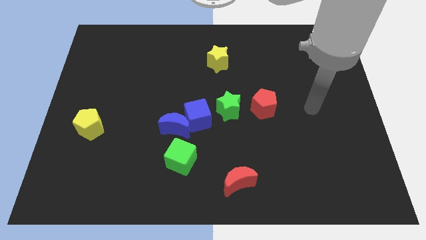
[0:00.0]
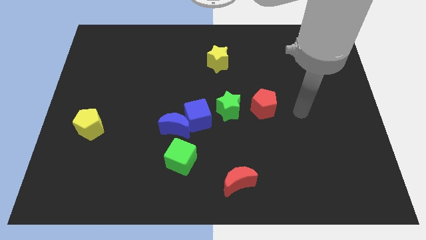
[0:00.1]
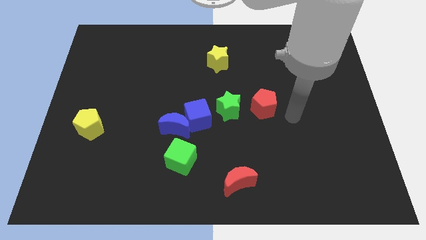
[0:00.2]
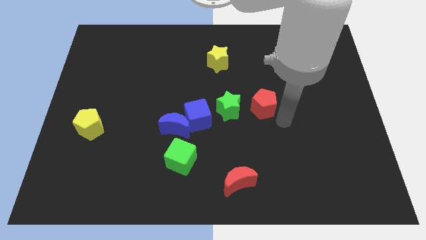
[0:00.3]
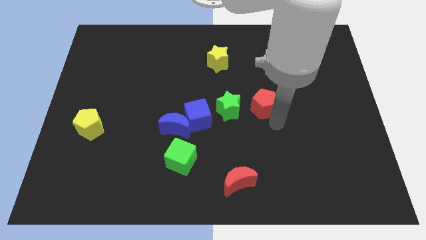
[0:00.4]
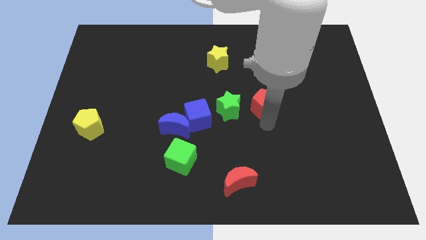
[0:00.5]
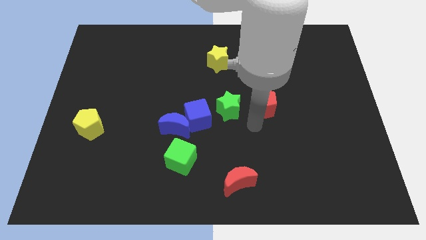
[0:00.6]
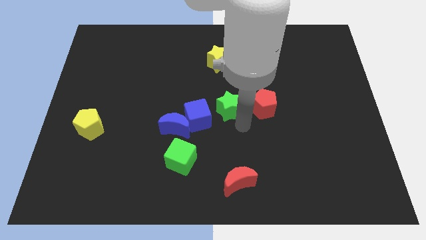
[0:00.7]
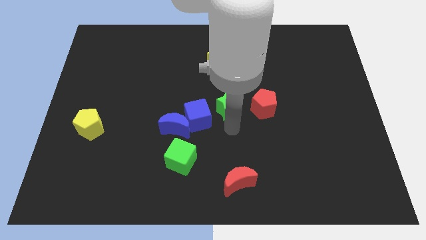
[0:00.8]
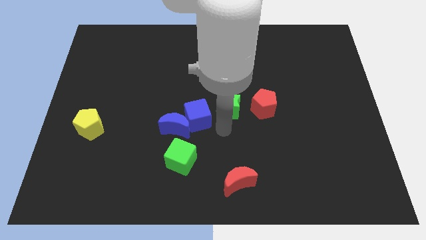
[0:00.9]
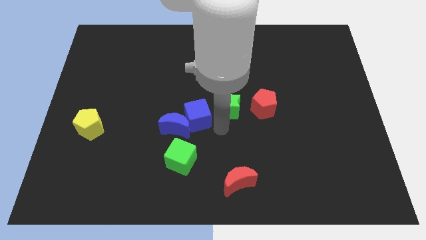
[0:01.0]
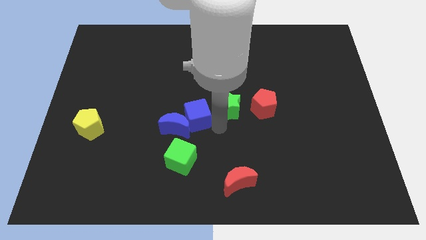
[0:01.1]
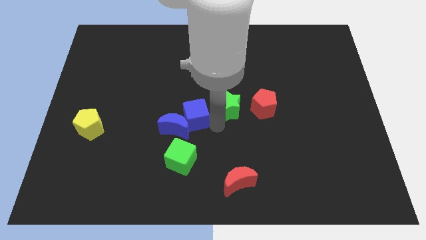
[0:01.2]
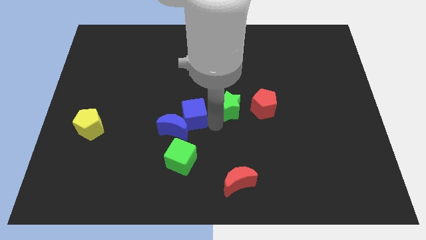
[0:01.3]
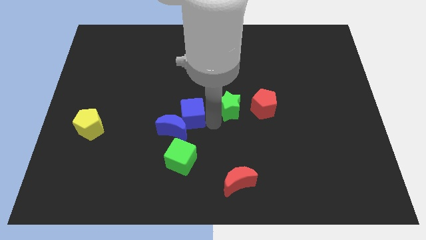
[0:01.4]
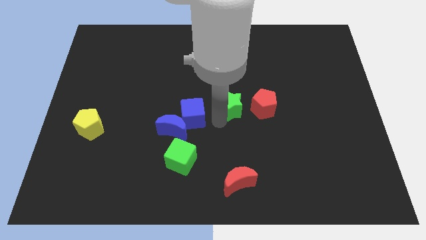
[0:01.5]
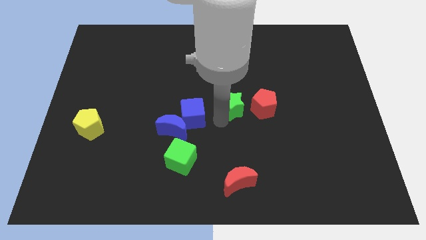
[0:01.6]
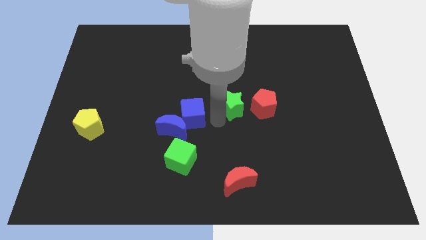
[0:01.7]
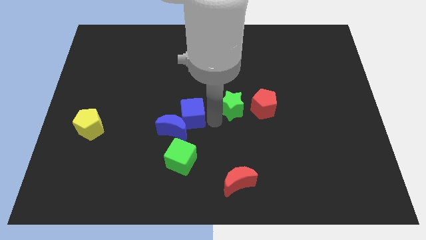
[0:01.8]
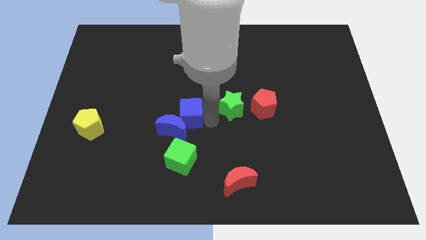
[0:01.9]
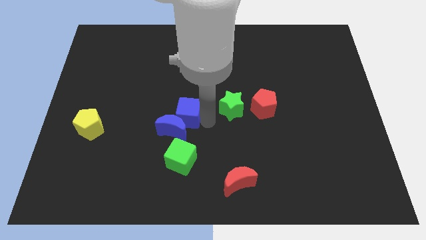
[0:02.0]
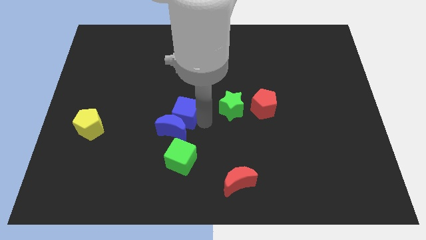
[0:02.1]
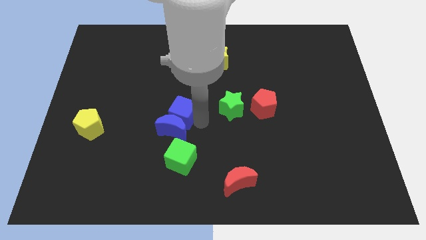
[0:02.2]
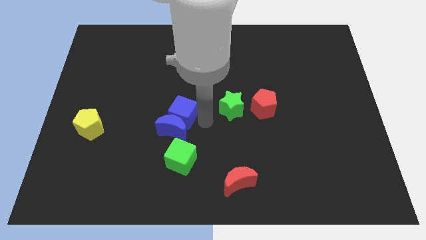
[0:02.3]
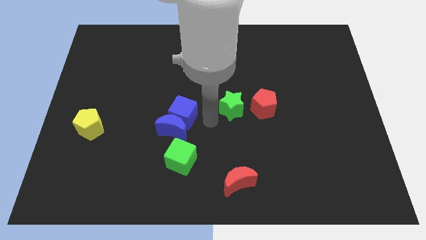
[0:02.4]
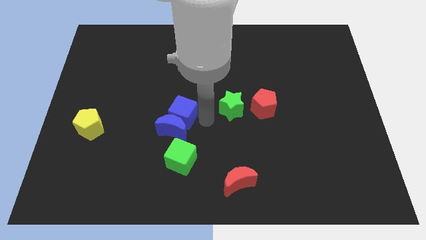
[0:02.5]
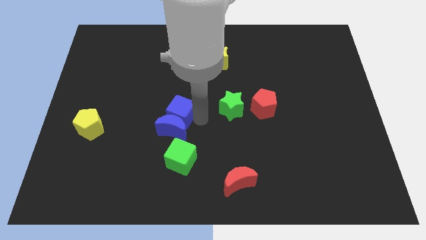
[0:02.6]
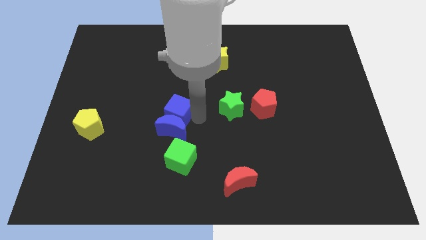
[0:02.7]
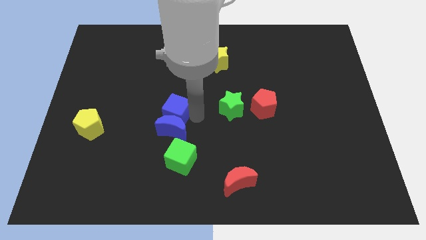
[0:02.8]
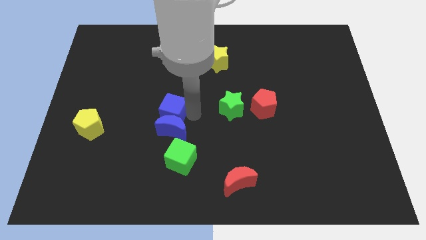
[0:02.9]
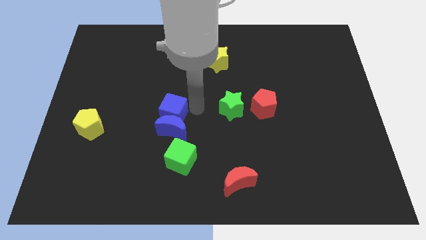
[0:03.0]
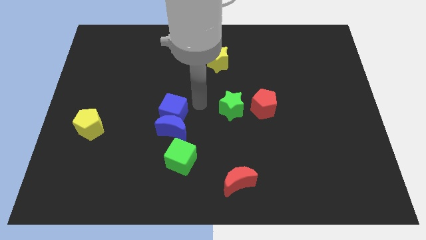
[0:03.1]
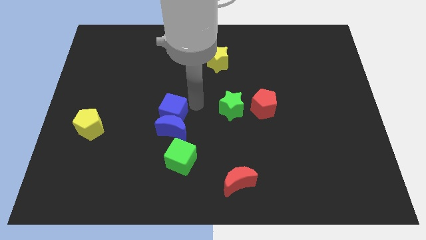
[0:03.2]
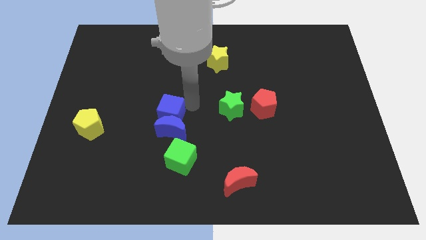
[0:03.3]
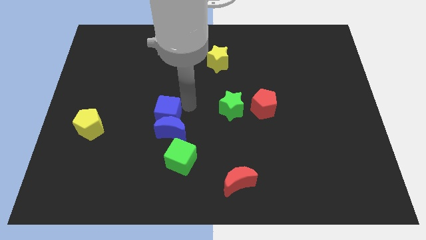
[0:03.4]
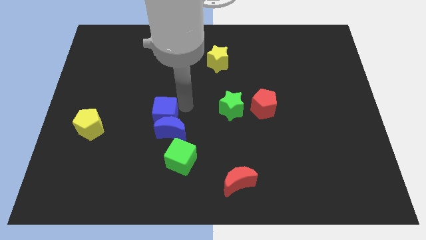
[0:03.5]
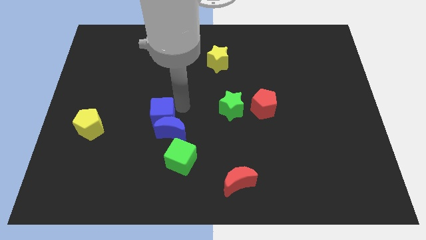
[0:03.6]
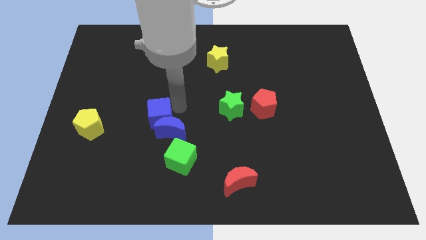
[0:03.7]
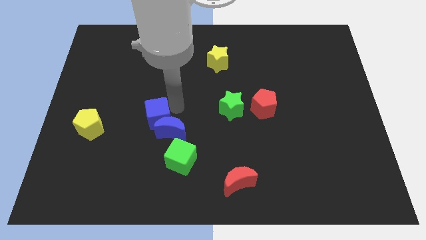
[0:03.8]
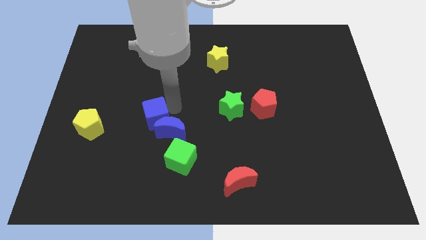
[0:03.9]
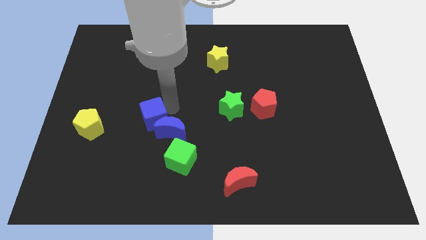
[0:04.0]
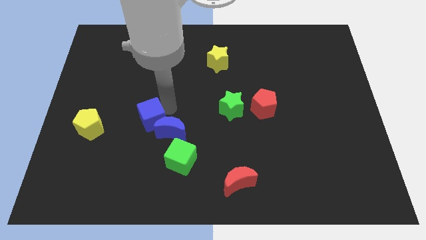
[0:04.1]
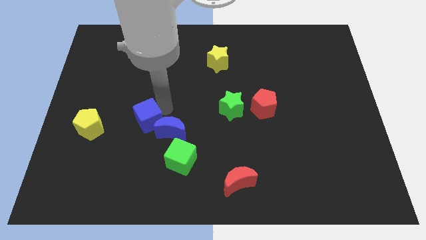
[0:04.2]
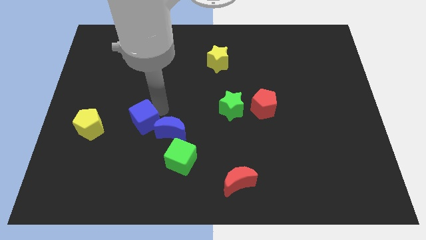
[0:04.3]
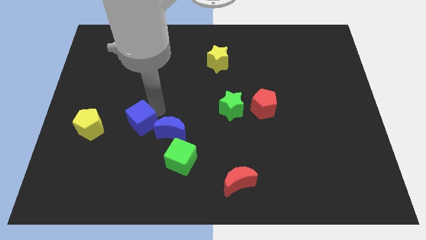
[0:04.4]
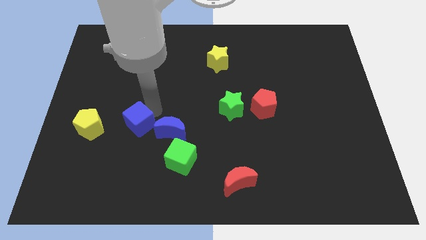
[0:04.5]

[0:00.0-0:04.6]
push the blue cube a bit diagonally down and to the left

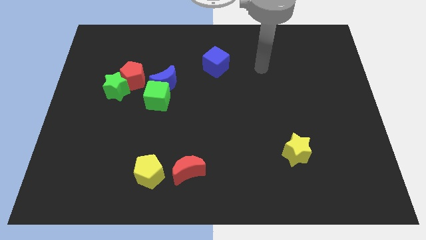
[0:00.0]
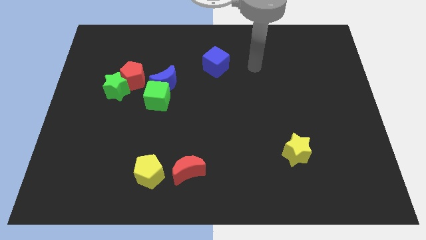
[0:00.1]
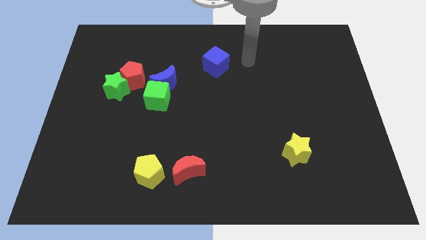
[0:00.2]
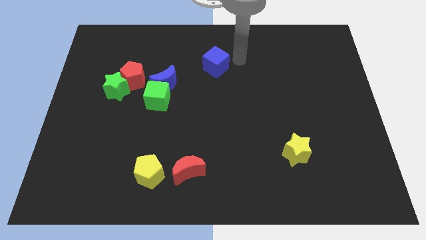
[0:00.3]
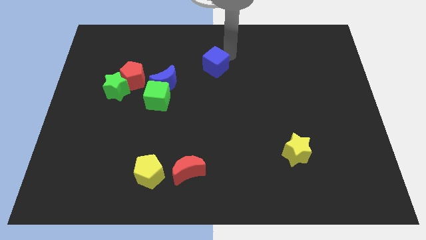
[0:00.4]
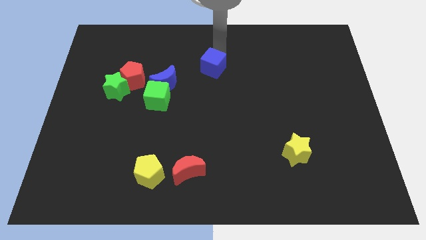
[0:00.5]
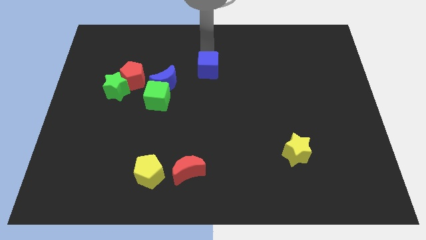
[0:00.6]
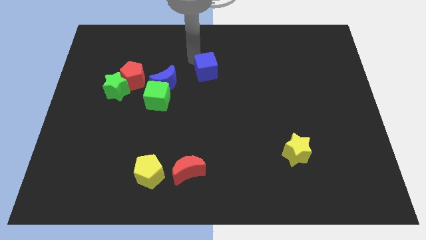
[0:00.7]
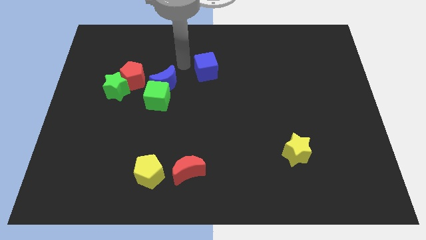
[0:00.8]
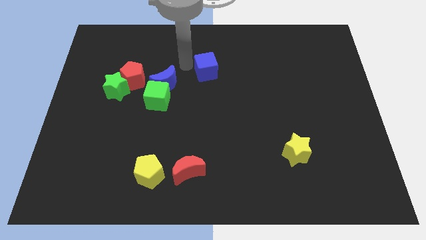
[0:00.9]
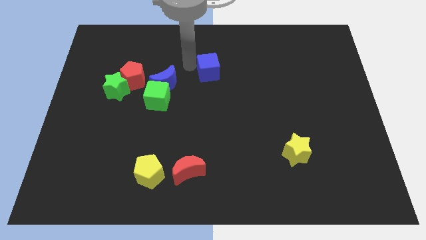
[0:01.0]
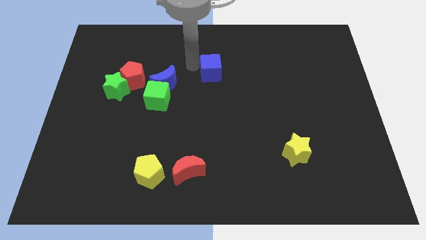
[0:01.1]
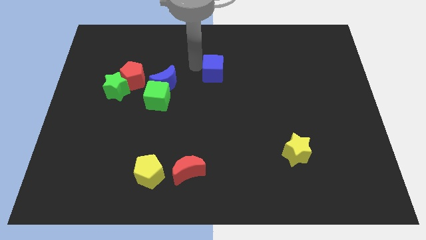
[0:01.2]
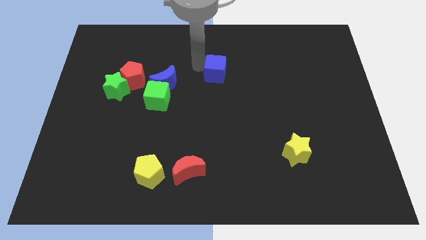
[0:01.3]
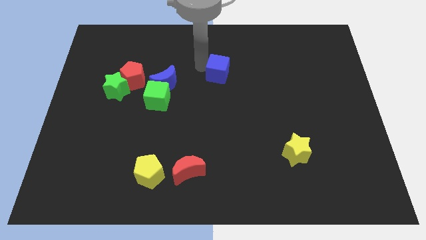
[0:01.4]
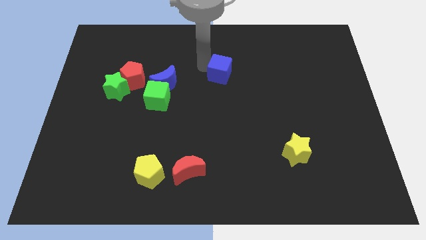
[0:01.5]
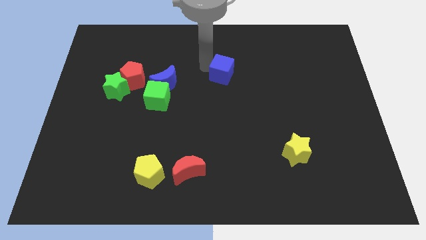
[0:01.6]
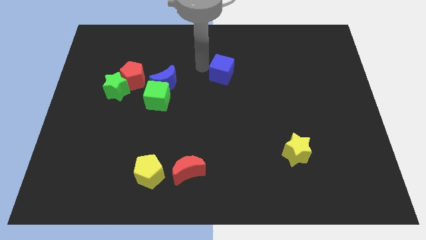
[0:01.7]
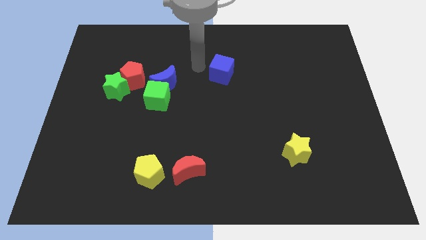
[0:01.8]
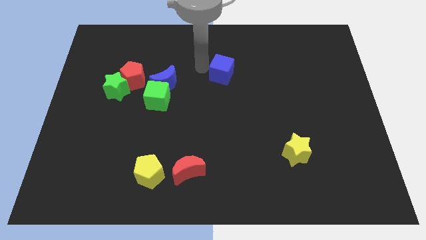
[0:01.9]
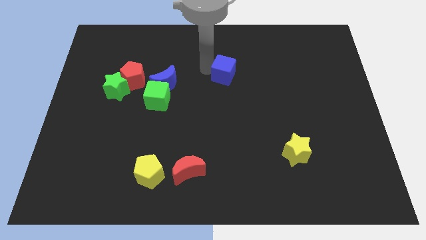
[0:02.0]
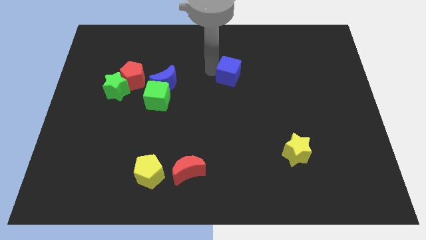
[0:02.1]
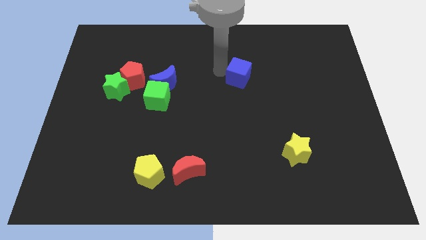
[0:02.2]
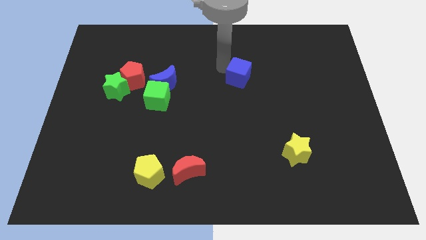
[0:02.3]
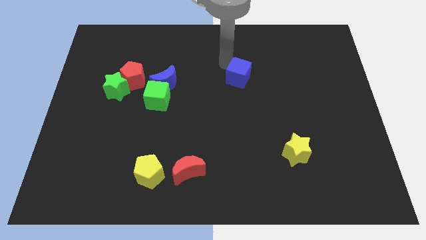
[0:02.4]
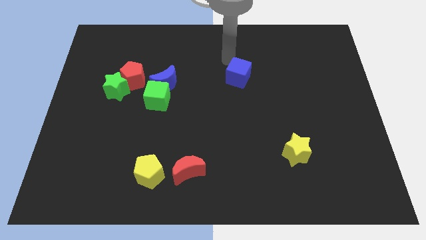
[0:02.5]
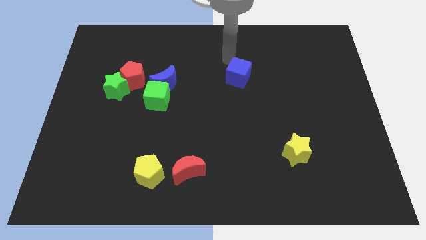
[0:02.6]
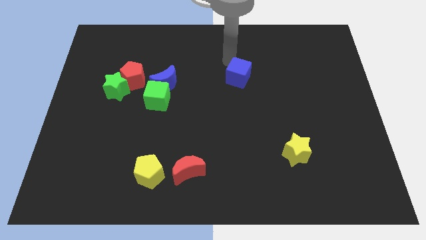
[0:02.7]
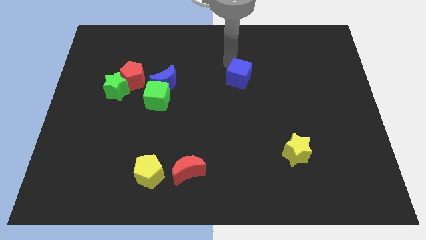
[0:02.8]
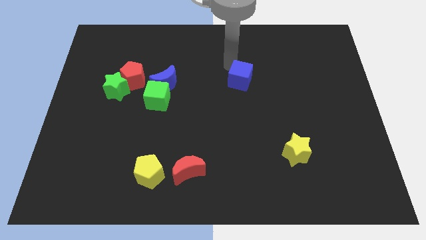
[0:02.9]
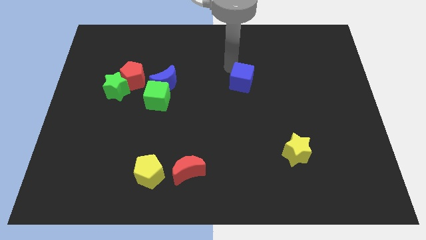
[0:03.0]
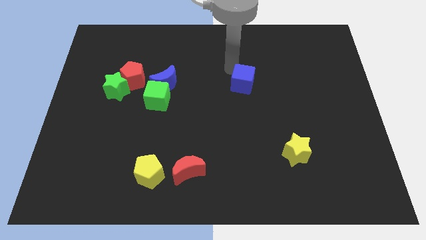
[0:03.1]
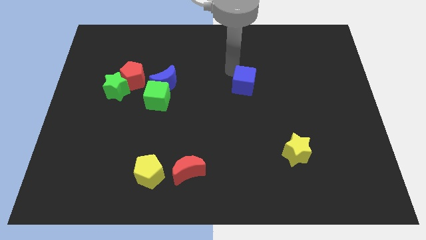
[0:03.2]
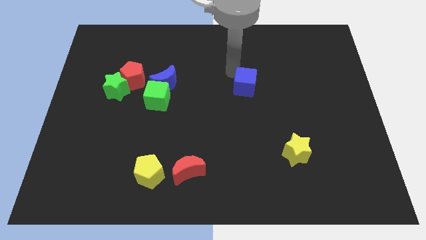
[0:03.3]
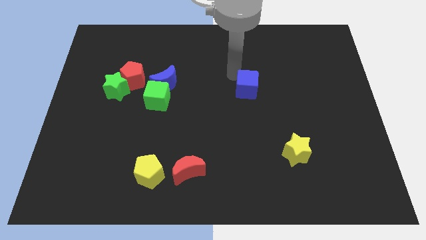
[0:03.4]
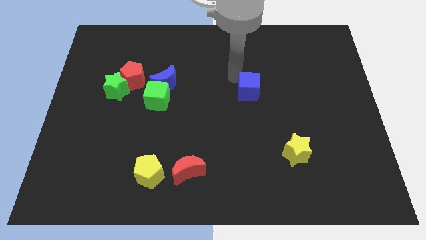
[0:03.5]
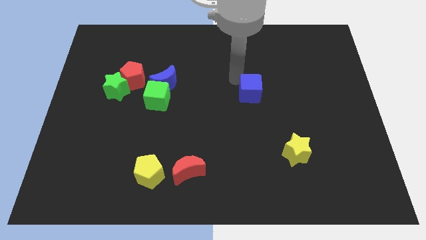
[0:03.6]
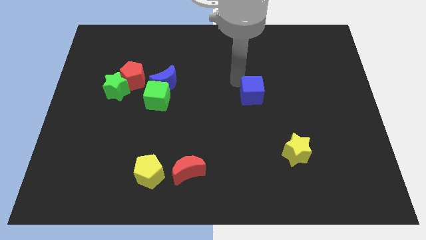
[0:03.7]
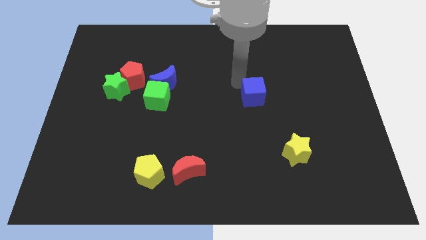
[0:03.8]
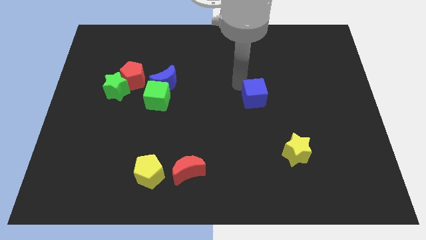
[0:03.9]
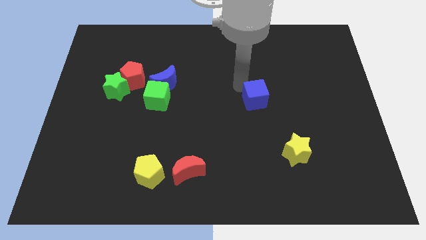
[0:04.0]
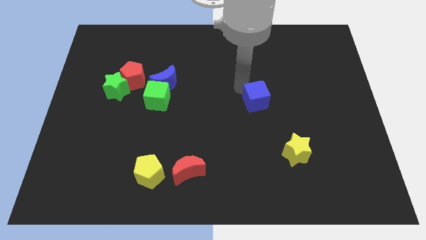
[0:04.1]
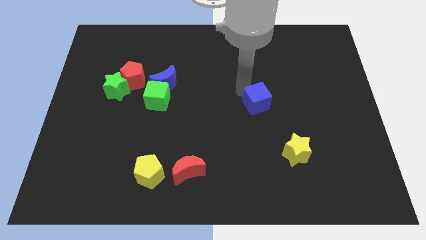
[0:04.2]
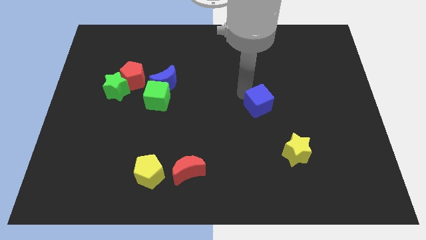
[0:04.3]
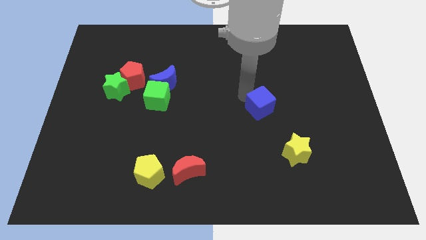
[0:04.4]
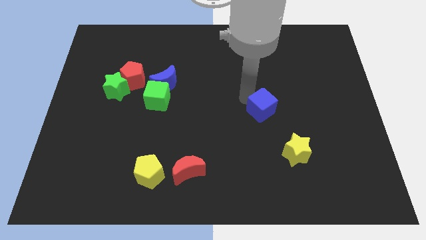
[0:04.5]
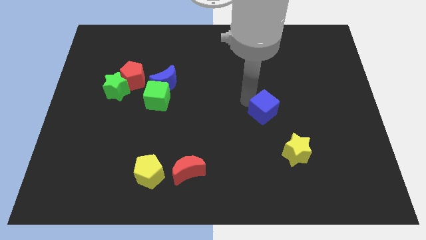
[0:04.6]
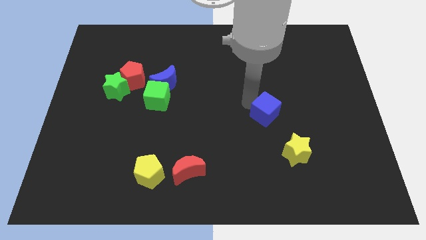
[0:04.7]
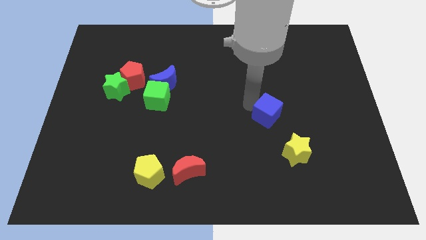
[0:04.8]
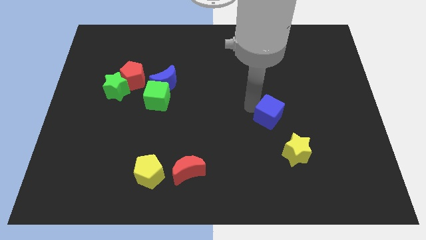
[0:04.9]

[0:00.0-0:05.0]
move the blue cube downwards and right diagonally
